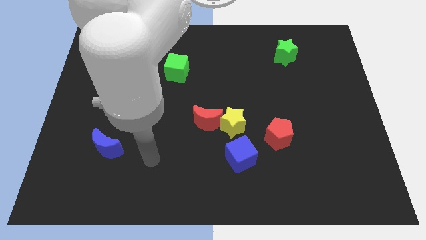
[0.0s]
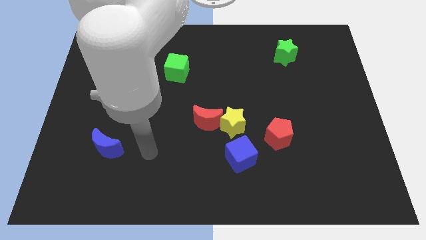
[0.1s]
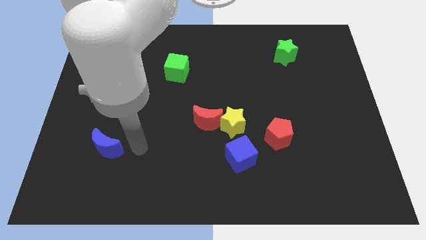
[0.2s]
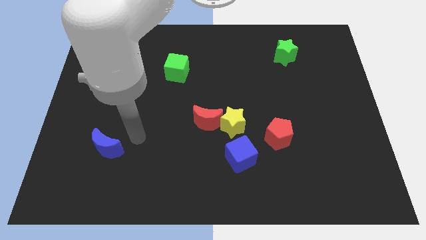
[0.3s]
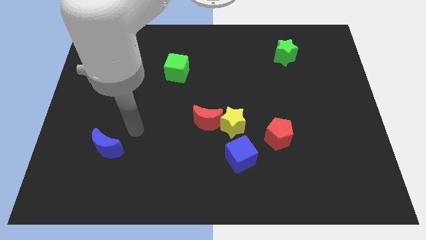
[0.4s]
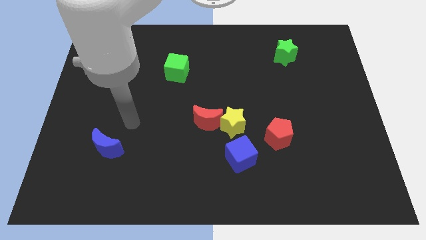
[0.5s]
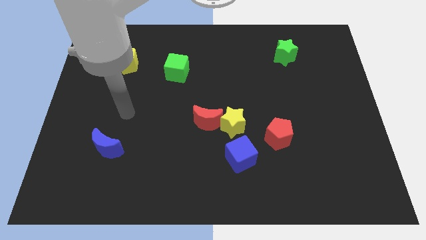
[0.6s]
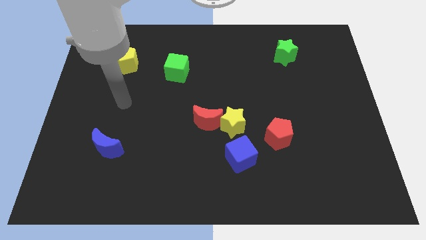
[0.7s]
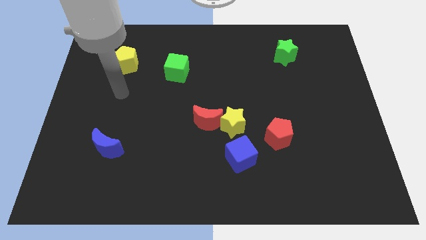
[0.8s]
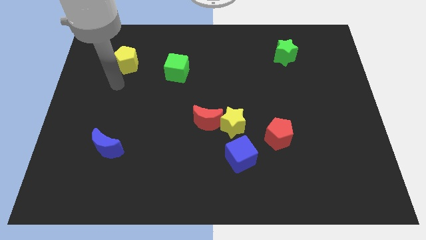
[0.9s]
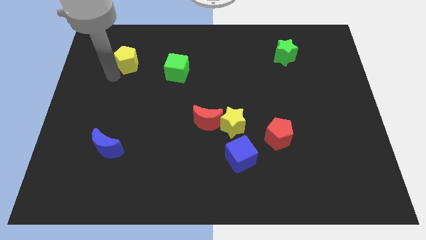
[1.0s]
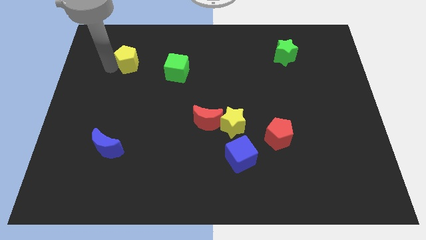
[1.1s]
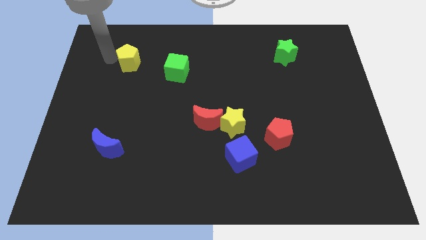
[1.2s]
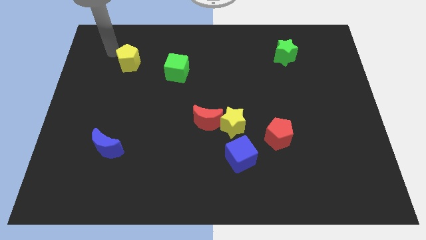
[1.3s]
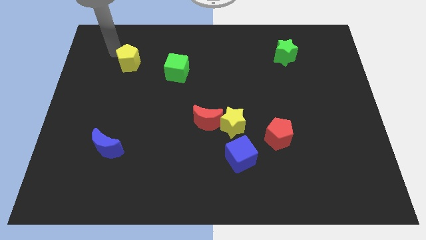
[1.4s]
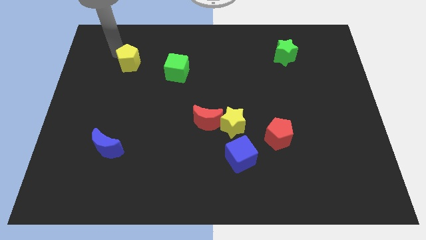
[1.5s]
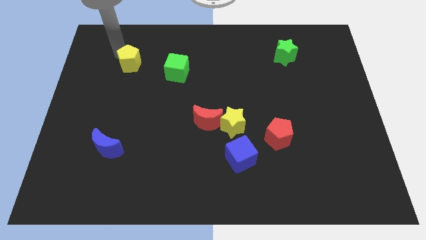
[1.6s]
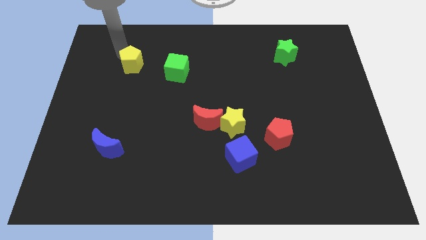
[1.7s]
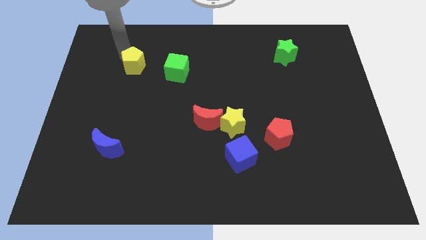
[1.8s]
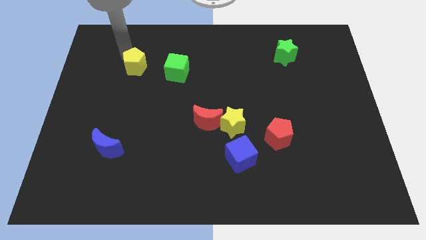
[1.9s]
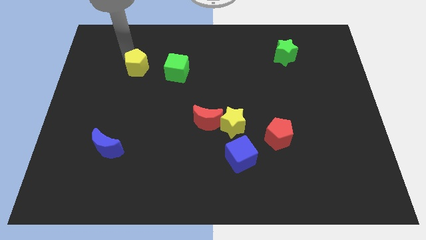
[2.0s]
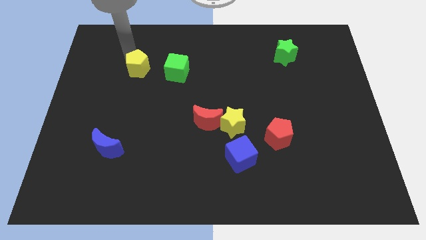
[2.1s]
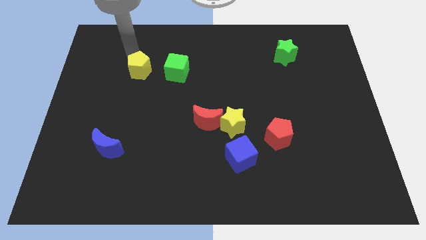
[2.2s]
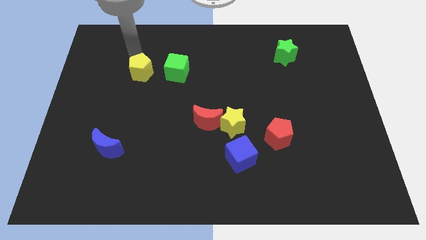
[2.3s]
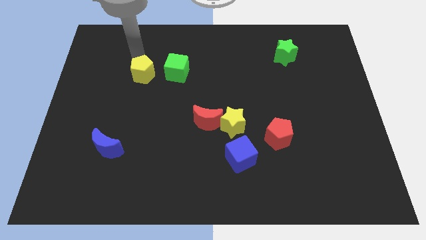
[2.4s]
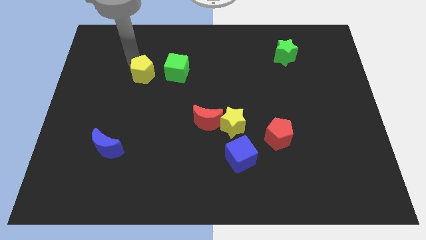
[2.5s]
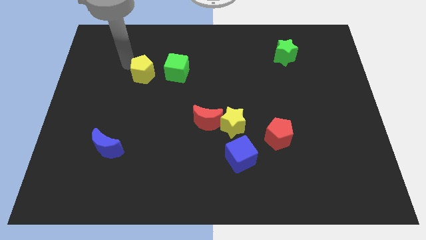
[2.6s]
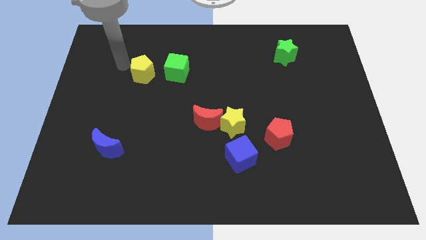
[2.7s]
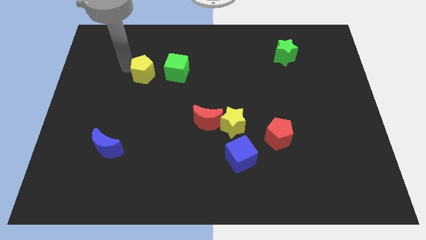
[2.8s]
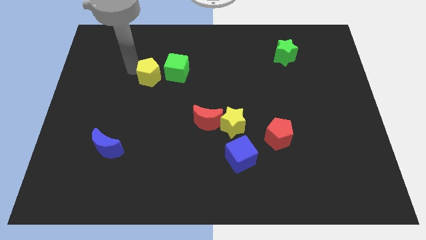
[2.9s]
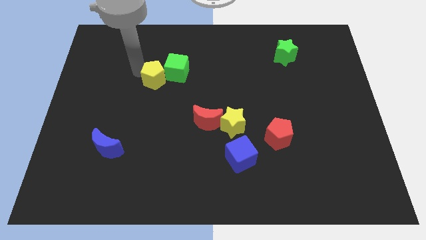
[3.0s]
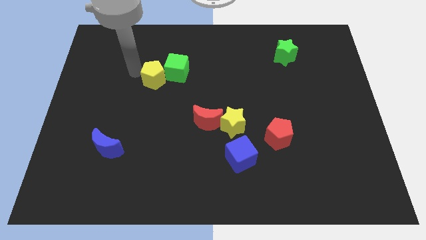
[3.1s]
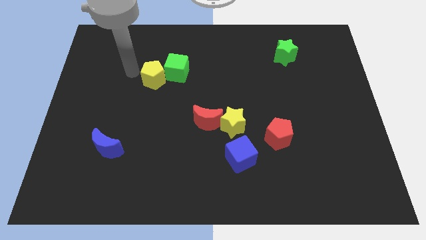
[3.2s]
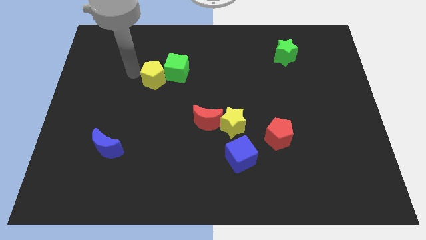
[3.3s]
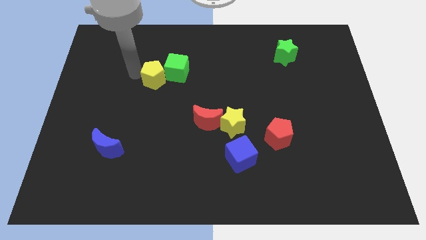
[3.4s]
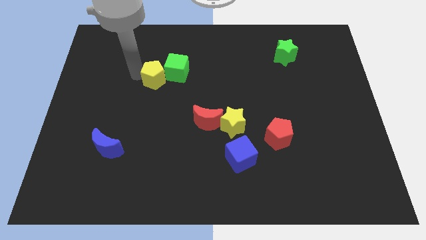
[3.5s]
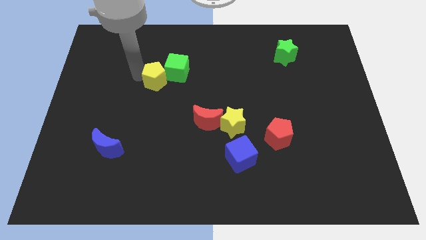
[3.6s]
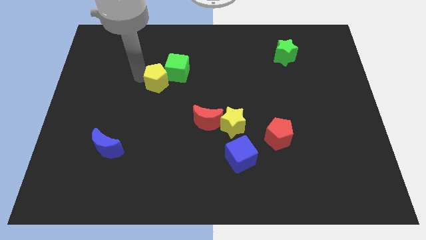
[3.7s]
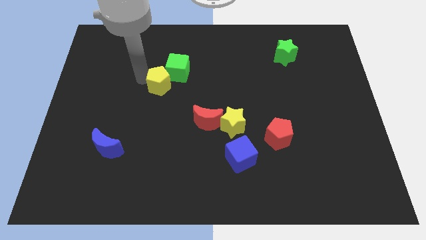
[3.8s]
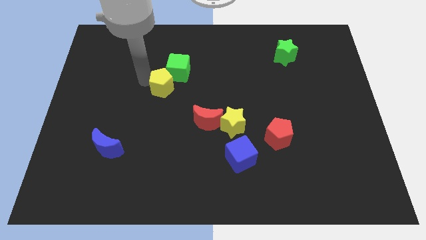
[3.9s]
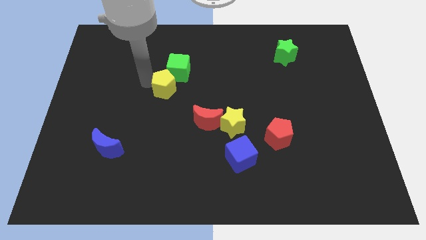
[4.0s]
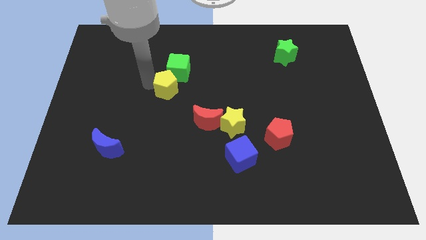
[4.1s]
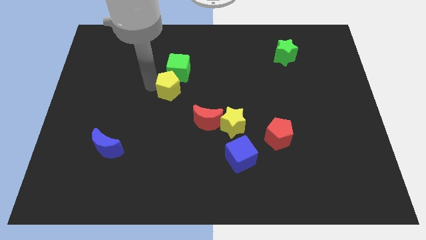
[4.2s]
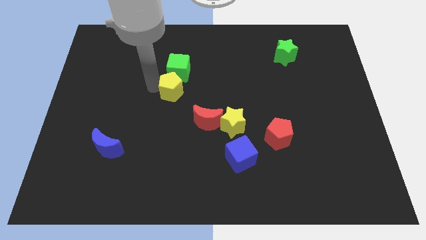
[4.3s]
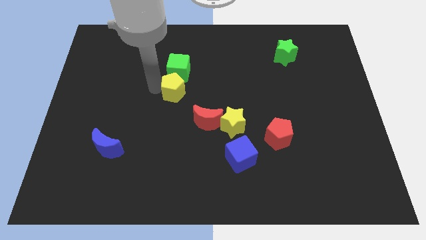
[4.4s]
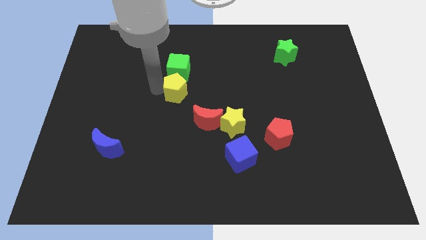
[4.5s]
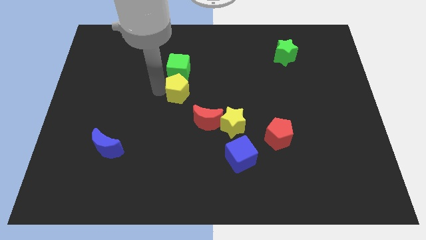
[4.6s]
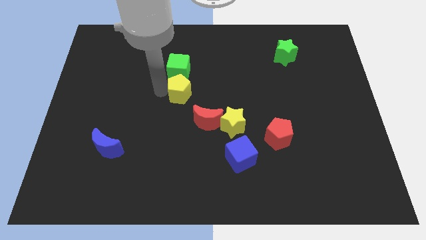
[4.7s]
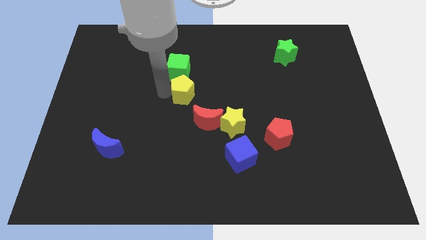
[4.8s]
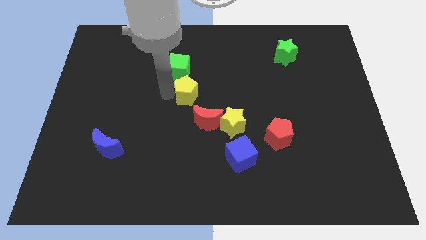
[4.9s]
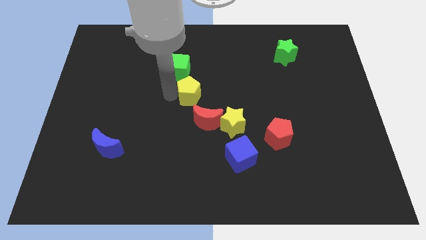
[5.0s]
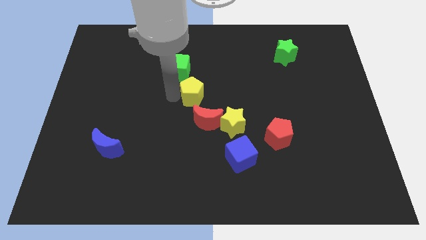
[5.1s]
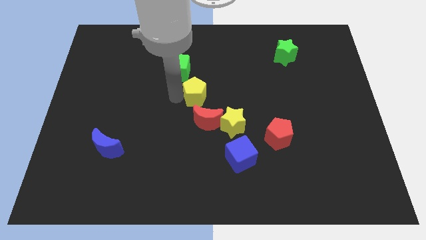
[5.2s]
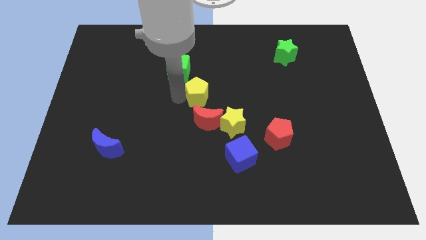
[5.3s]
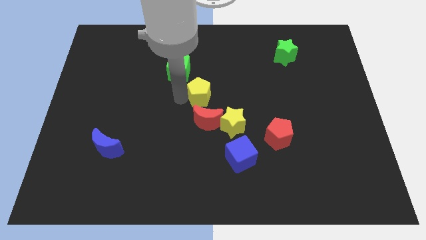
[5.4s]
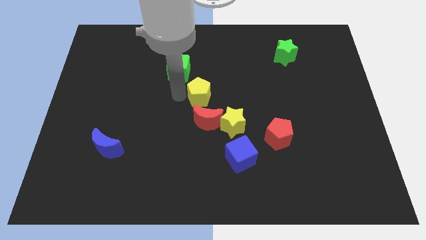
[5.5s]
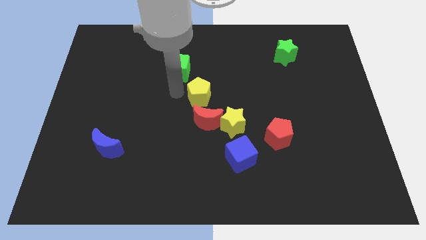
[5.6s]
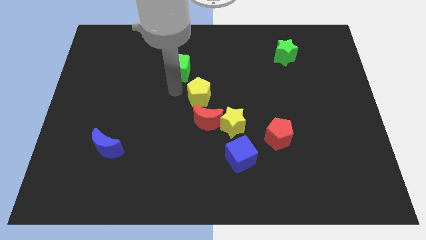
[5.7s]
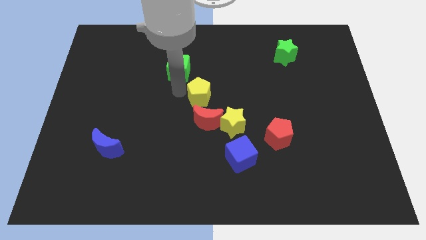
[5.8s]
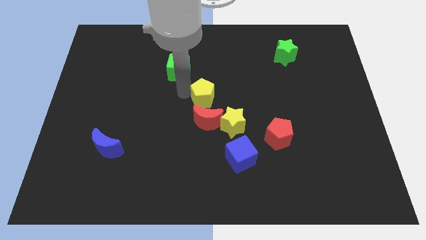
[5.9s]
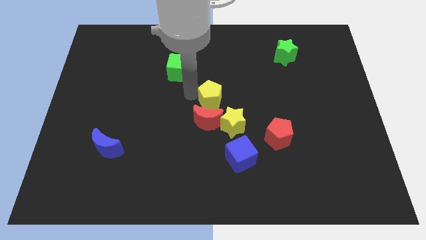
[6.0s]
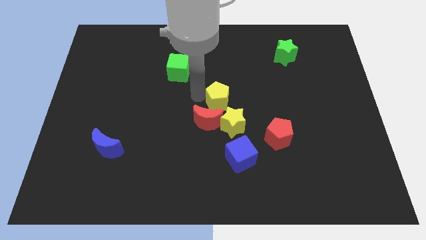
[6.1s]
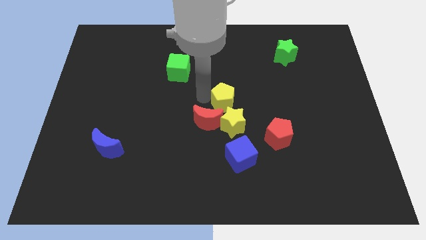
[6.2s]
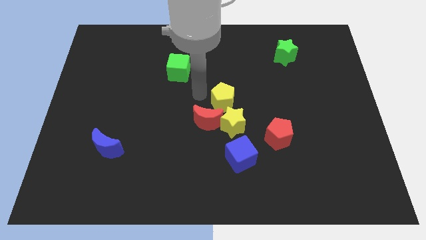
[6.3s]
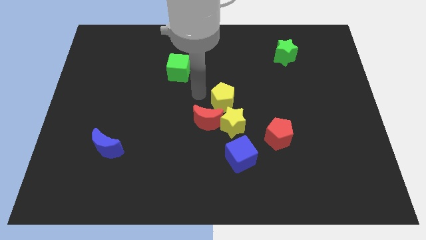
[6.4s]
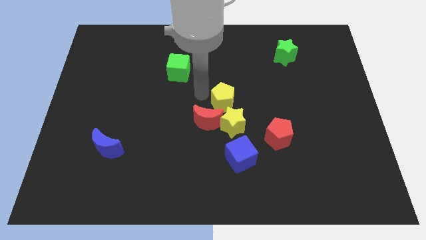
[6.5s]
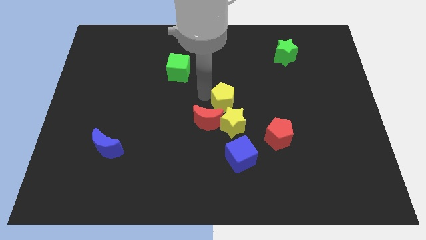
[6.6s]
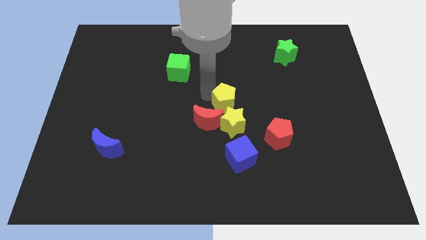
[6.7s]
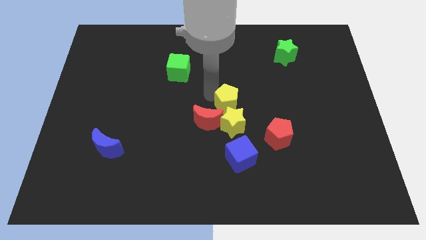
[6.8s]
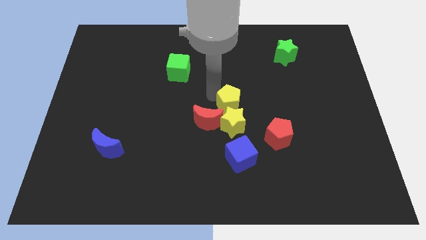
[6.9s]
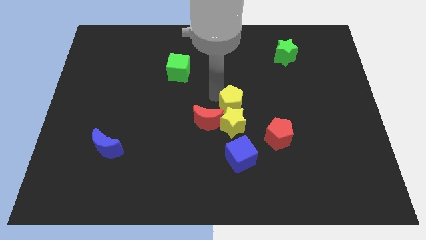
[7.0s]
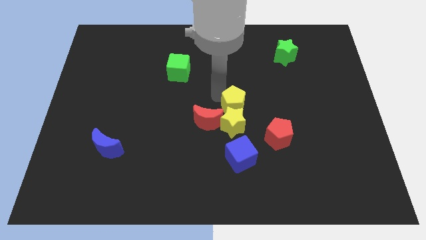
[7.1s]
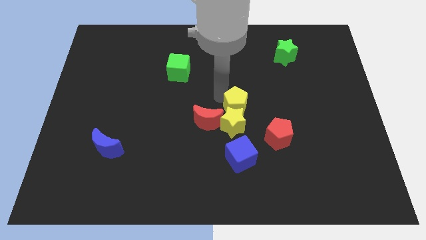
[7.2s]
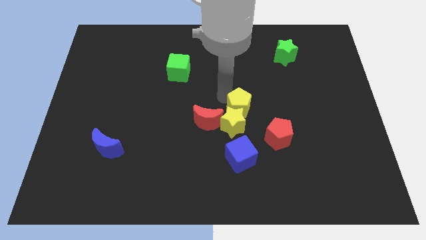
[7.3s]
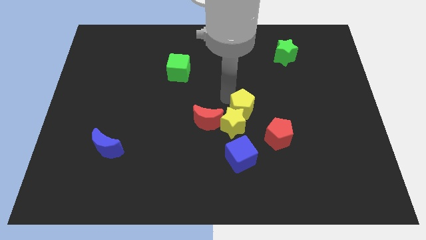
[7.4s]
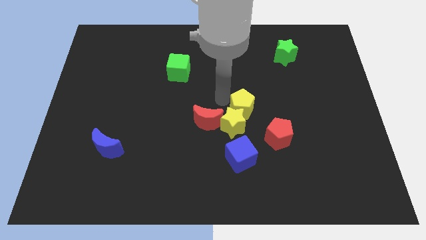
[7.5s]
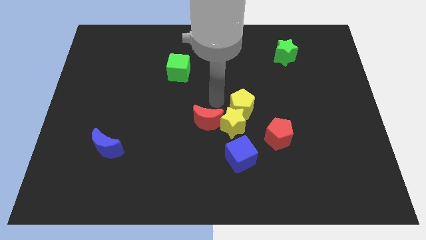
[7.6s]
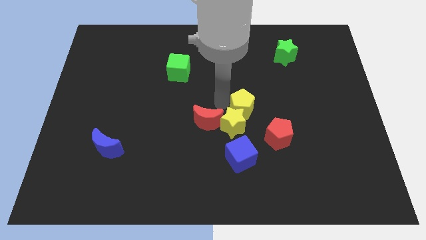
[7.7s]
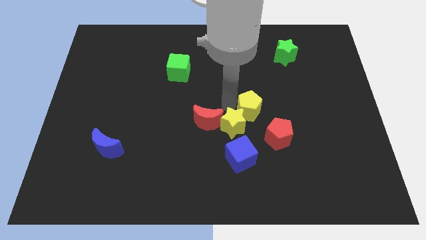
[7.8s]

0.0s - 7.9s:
put the yellow pentagon to the right of the yellow star
